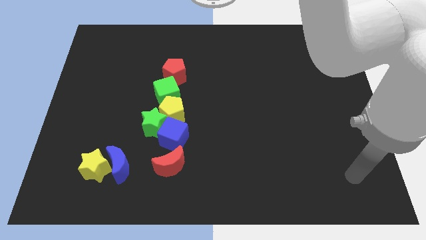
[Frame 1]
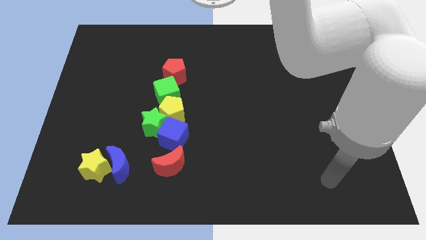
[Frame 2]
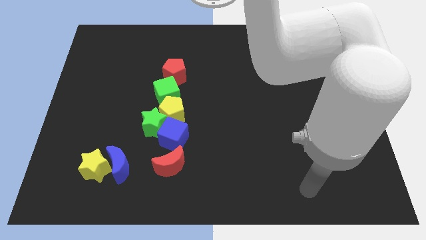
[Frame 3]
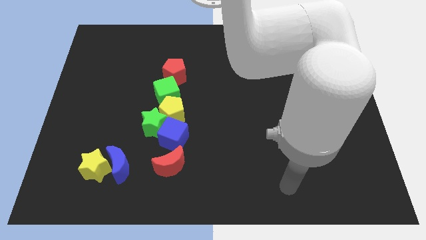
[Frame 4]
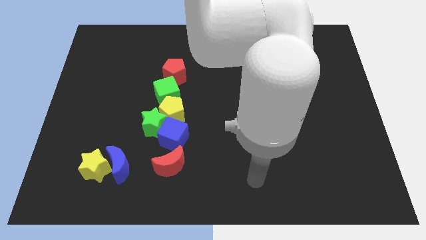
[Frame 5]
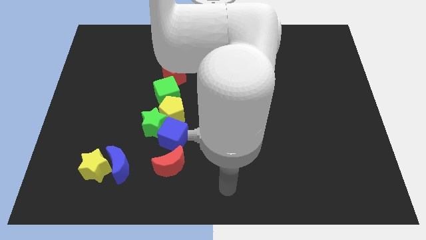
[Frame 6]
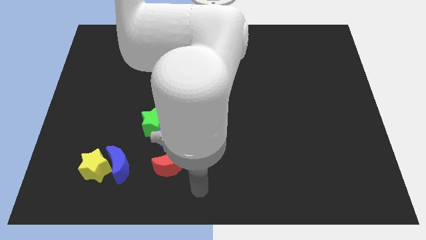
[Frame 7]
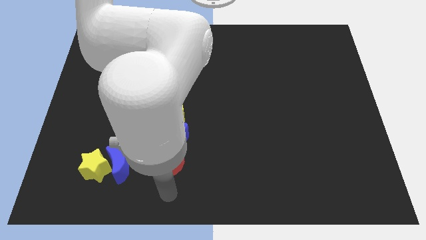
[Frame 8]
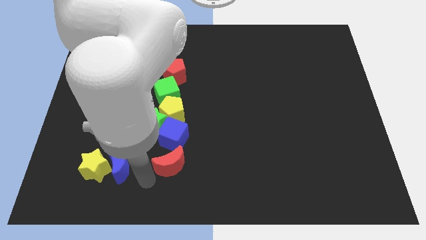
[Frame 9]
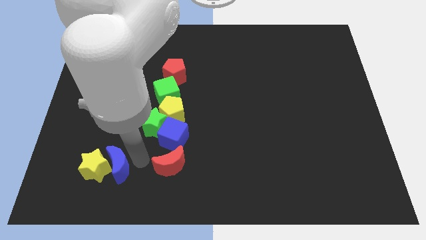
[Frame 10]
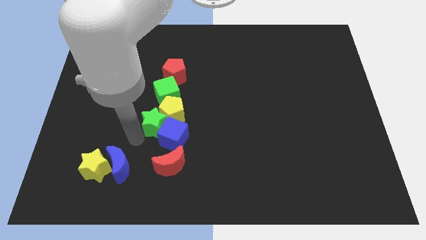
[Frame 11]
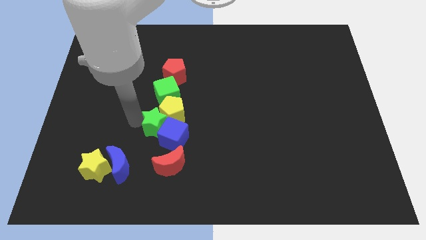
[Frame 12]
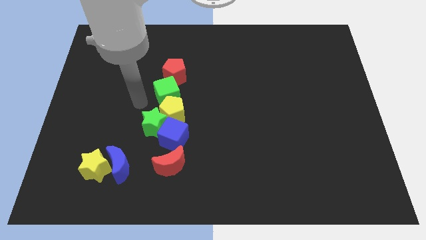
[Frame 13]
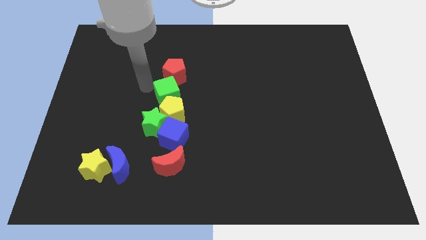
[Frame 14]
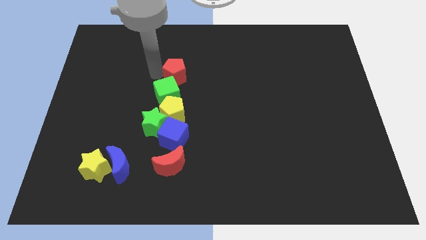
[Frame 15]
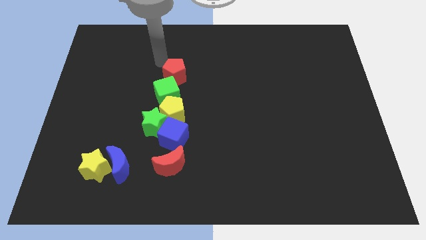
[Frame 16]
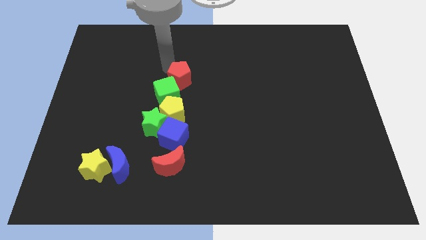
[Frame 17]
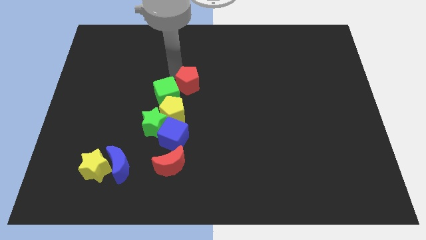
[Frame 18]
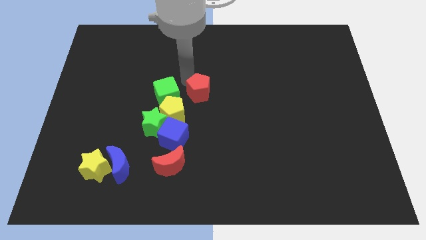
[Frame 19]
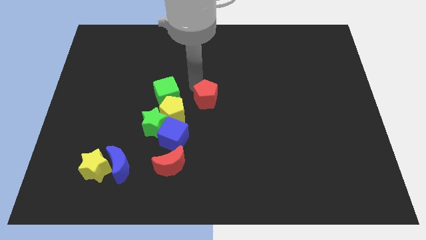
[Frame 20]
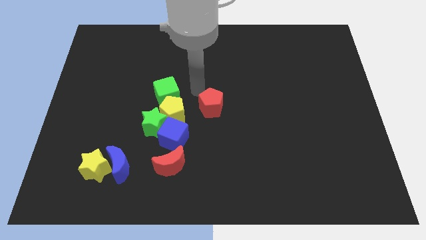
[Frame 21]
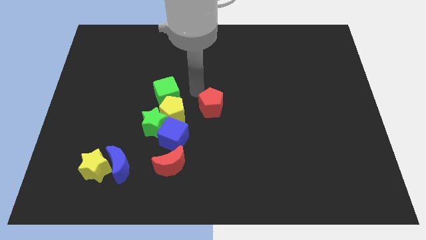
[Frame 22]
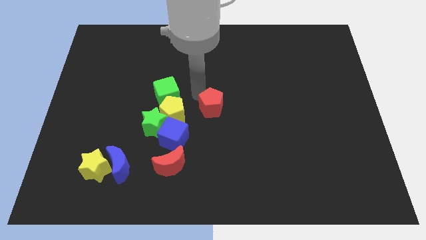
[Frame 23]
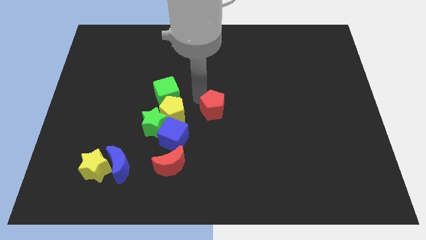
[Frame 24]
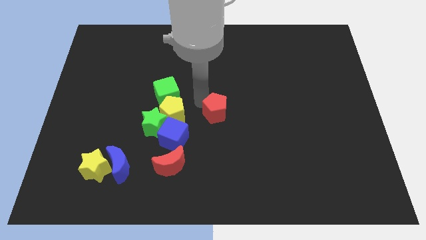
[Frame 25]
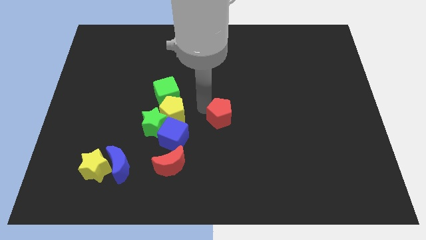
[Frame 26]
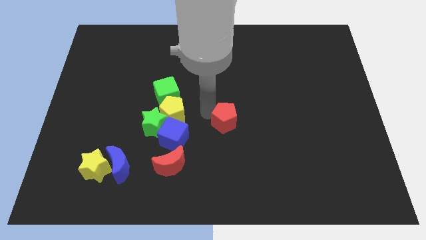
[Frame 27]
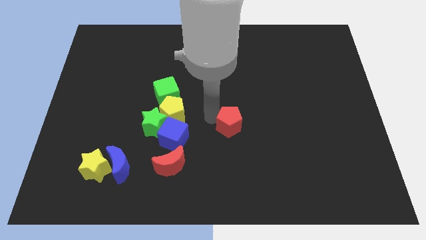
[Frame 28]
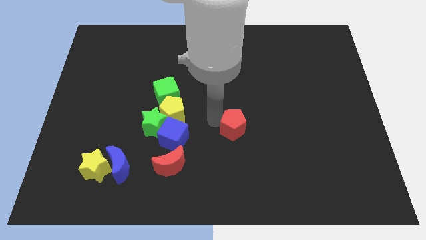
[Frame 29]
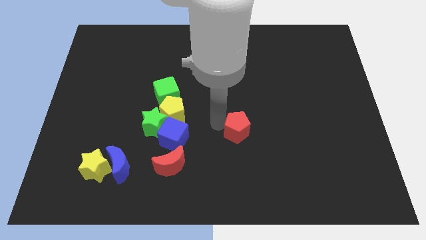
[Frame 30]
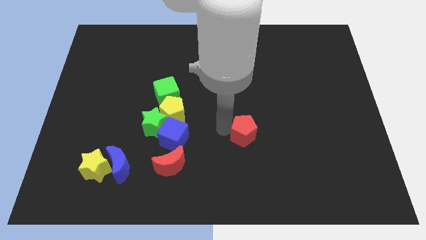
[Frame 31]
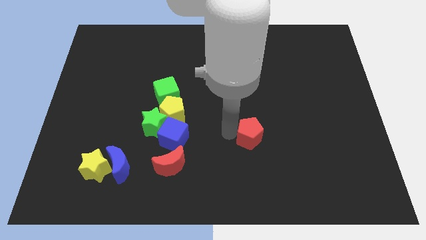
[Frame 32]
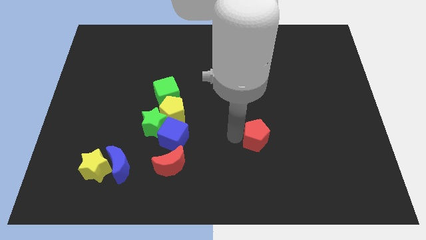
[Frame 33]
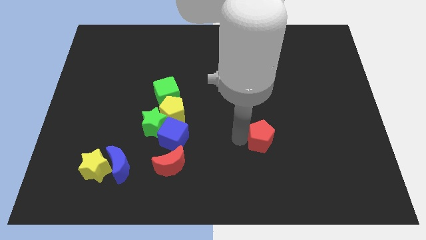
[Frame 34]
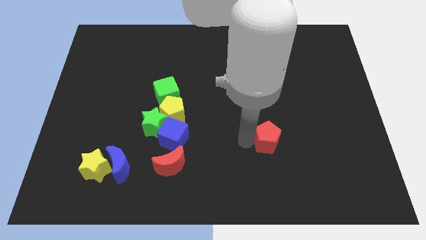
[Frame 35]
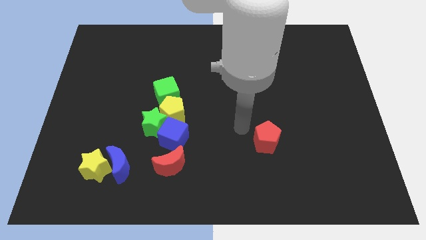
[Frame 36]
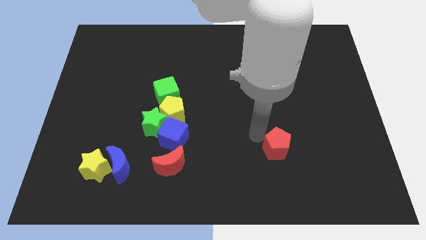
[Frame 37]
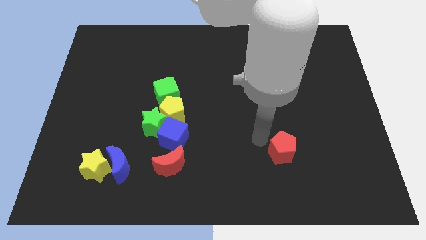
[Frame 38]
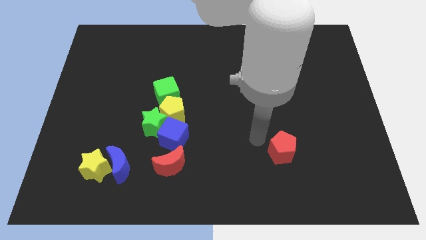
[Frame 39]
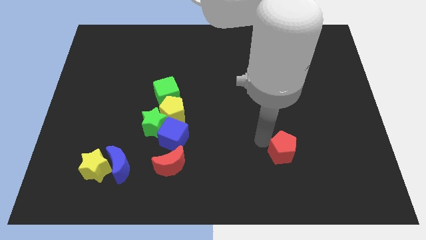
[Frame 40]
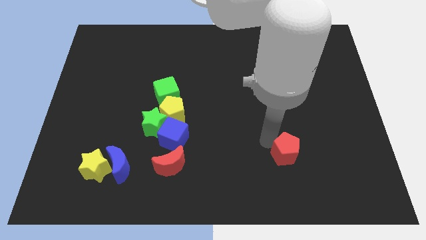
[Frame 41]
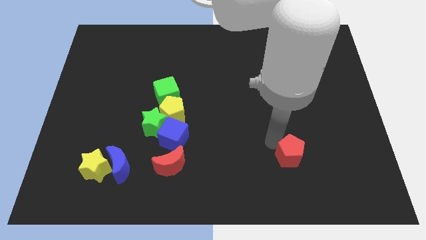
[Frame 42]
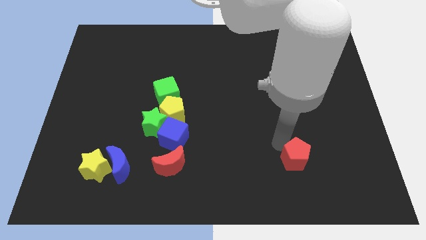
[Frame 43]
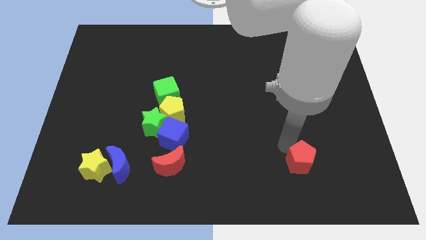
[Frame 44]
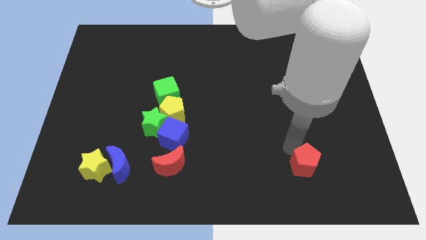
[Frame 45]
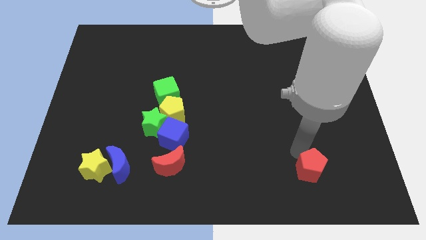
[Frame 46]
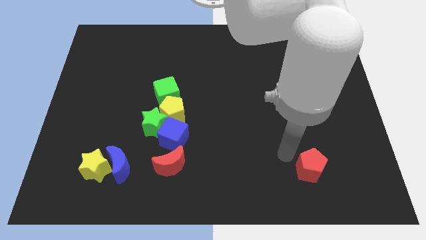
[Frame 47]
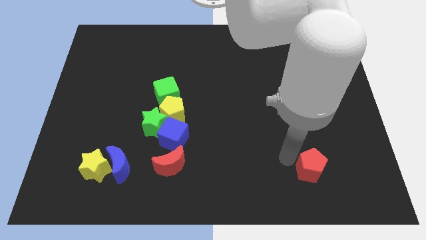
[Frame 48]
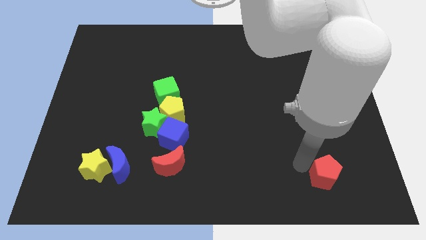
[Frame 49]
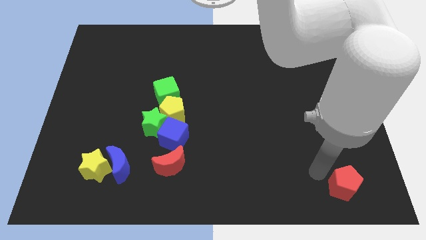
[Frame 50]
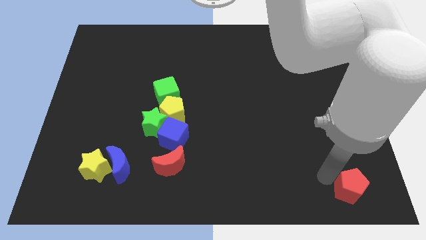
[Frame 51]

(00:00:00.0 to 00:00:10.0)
push the red pentagon to the bottom right
